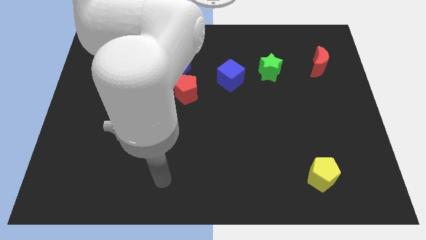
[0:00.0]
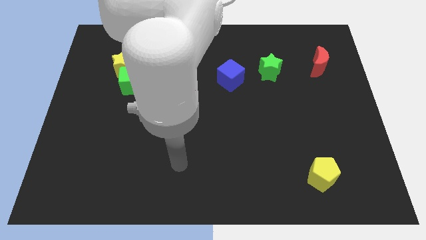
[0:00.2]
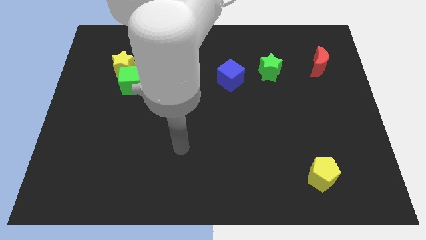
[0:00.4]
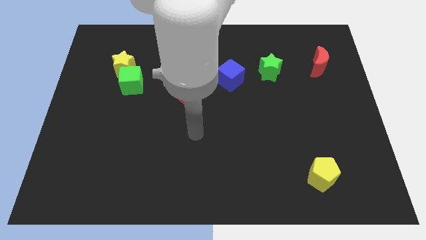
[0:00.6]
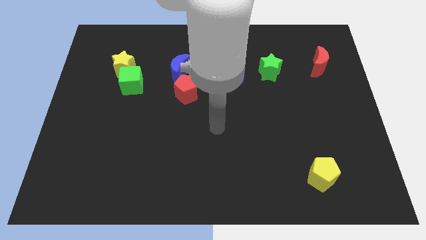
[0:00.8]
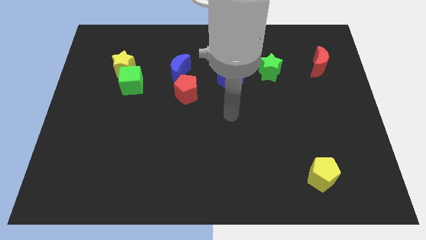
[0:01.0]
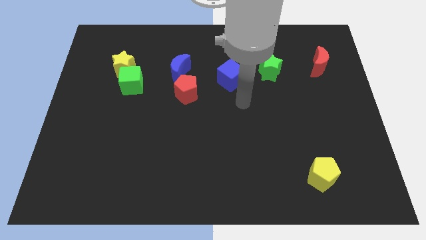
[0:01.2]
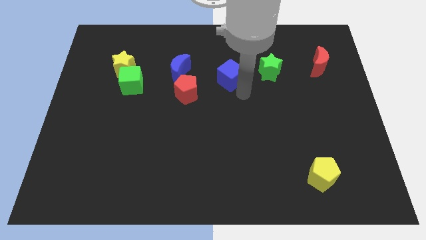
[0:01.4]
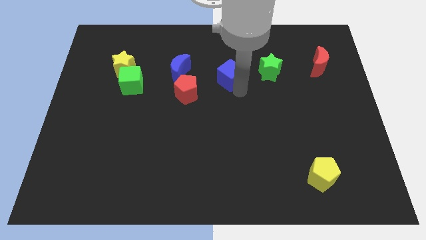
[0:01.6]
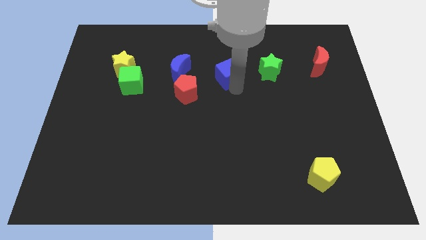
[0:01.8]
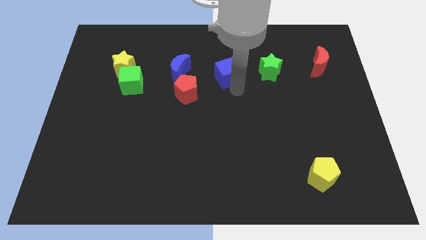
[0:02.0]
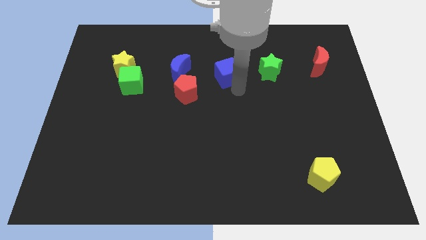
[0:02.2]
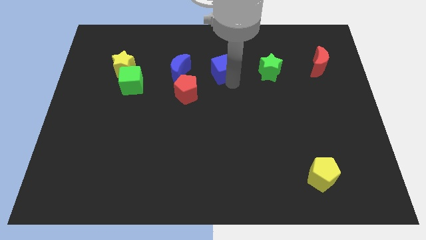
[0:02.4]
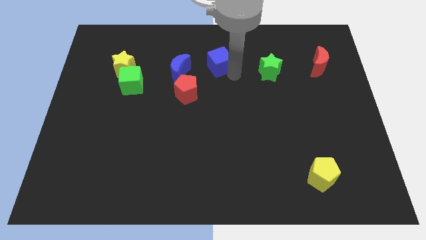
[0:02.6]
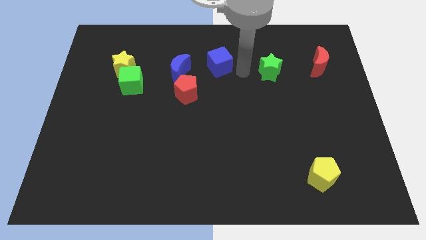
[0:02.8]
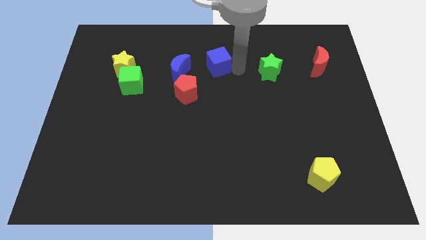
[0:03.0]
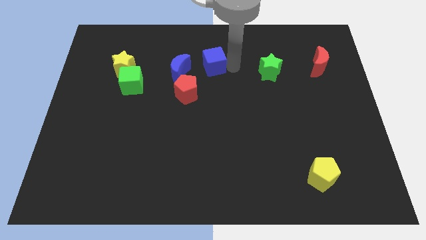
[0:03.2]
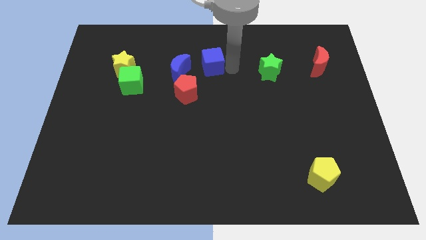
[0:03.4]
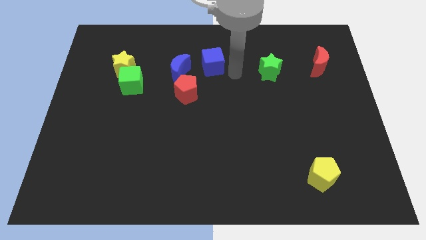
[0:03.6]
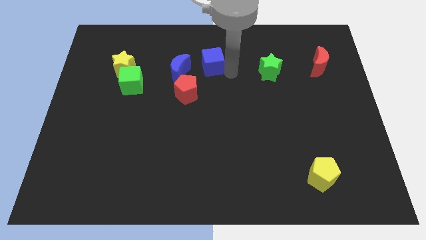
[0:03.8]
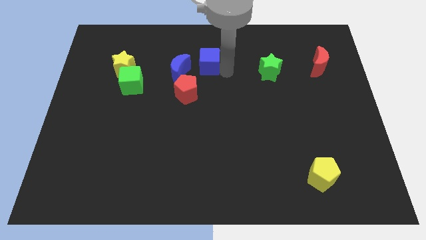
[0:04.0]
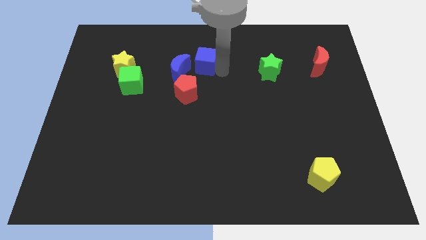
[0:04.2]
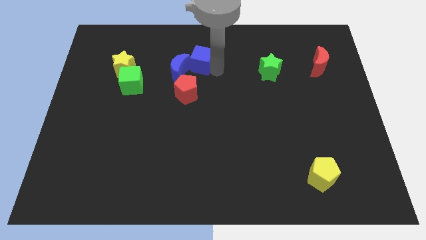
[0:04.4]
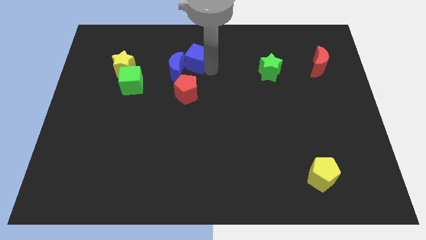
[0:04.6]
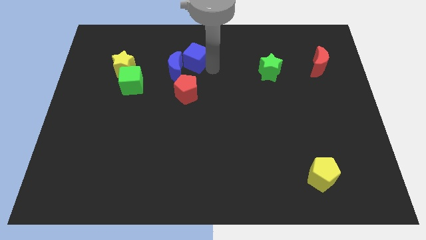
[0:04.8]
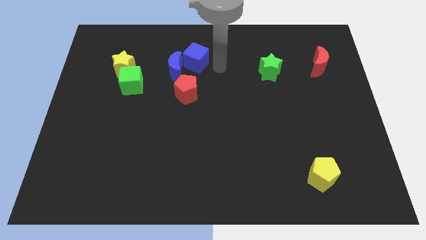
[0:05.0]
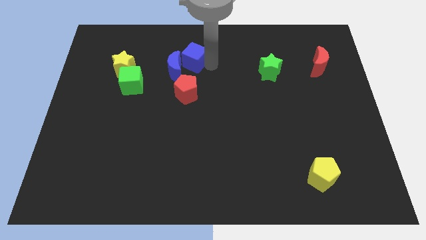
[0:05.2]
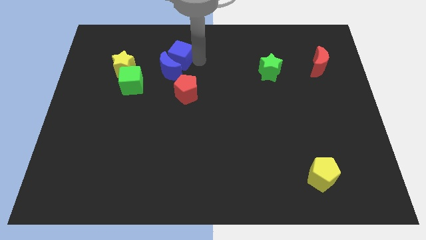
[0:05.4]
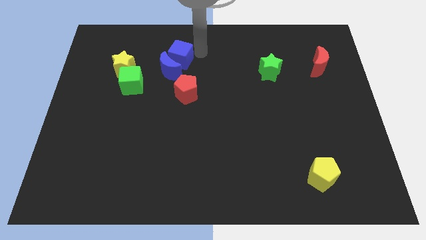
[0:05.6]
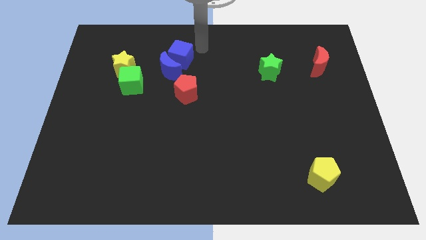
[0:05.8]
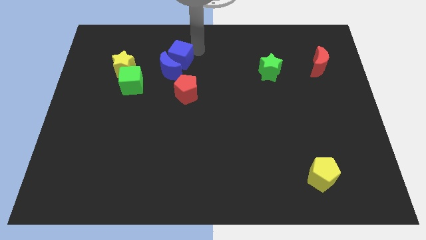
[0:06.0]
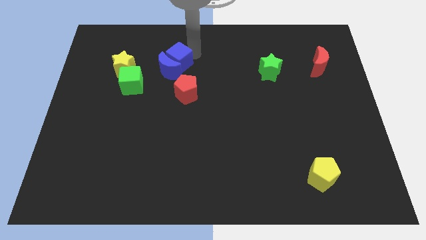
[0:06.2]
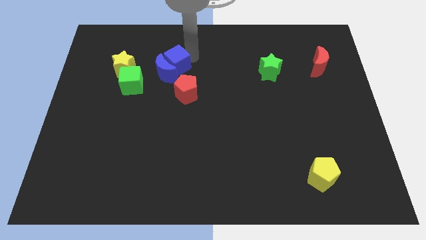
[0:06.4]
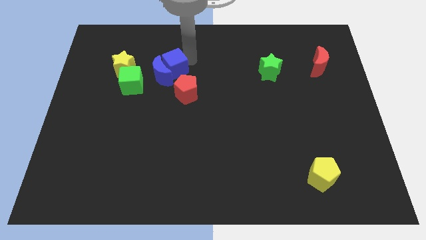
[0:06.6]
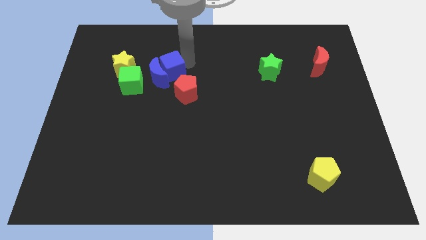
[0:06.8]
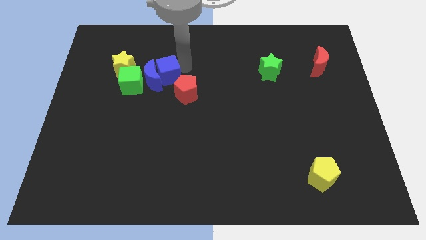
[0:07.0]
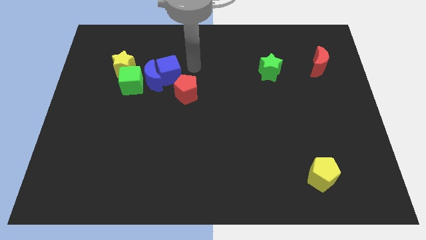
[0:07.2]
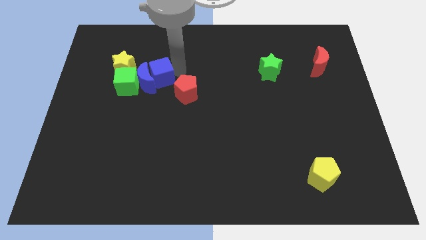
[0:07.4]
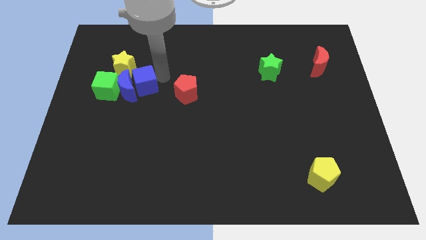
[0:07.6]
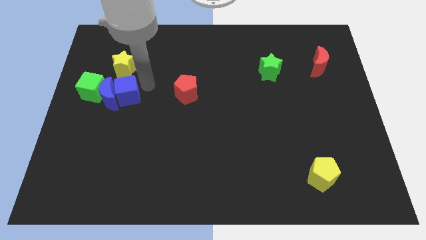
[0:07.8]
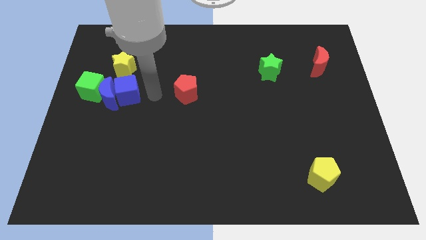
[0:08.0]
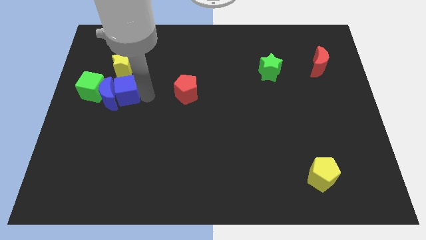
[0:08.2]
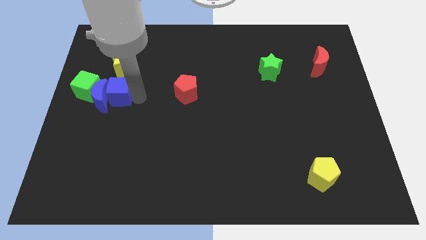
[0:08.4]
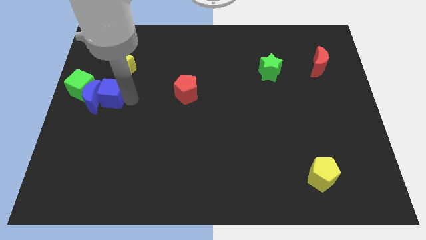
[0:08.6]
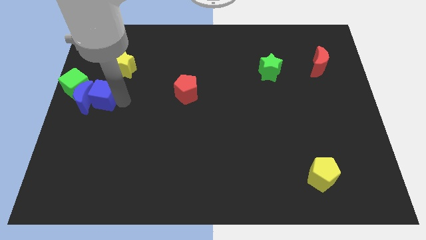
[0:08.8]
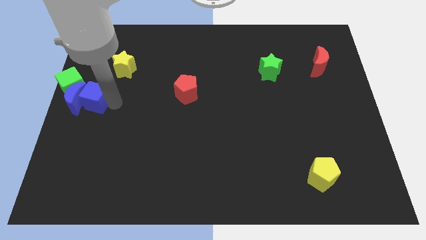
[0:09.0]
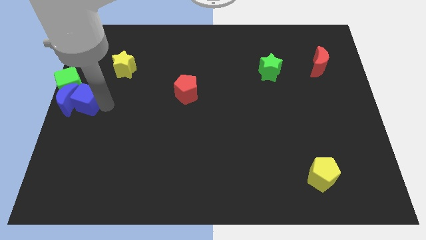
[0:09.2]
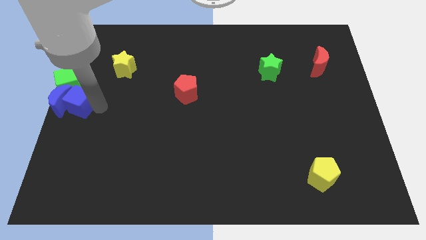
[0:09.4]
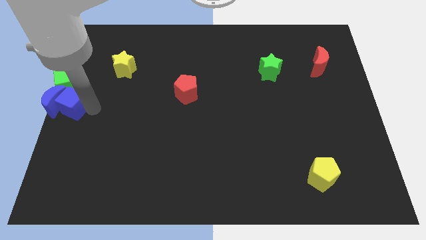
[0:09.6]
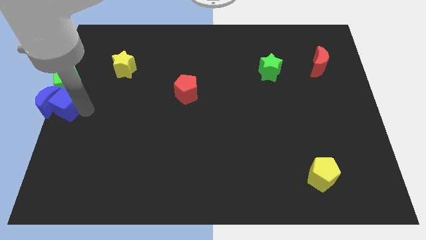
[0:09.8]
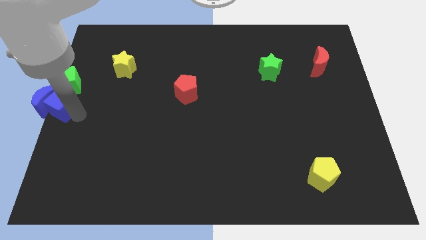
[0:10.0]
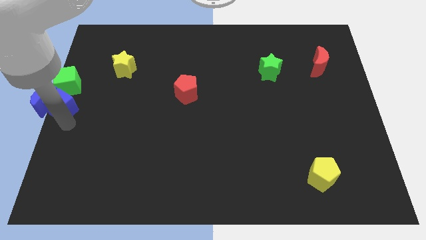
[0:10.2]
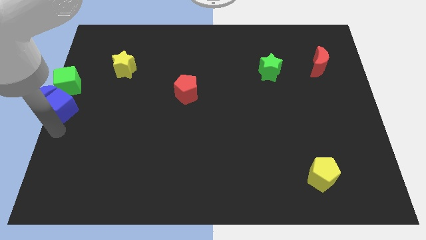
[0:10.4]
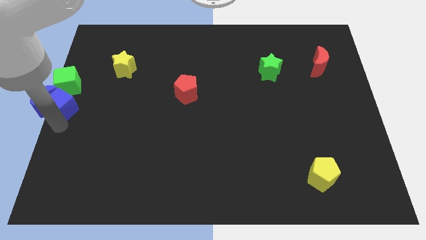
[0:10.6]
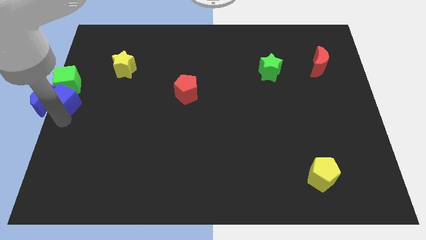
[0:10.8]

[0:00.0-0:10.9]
put the blue cube next to the green cube

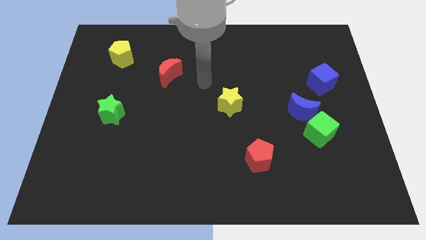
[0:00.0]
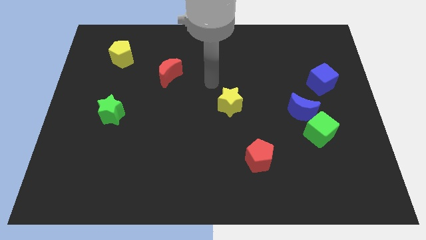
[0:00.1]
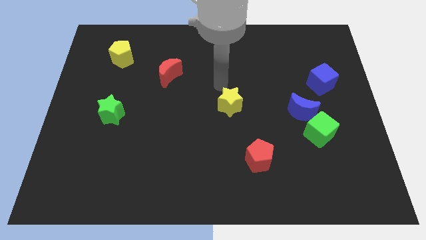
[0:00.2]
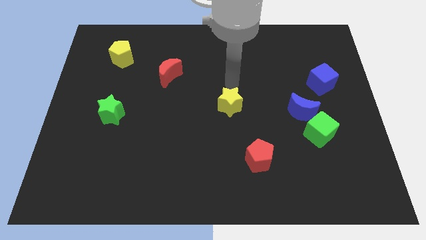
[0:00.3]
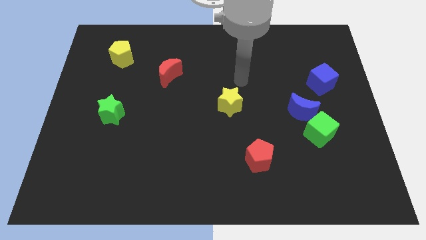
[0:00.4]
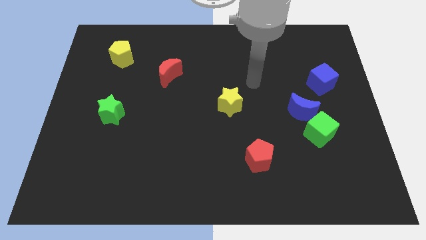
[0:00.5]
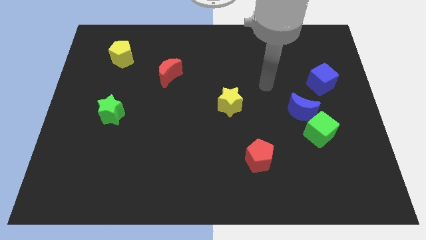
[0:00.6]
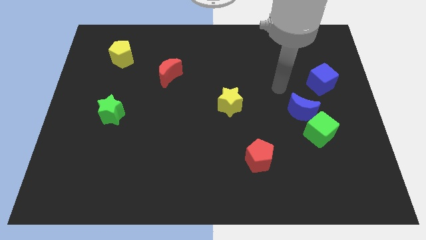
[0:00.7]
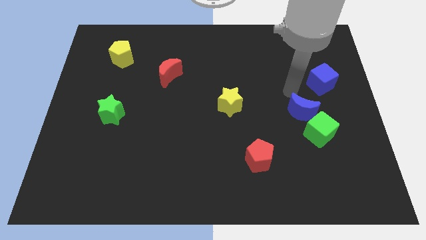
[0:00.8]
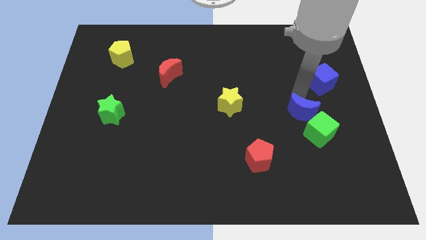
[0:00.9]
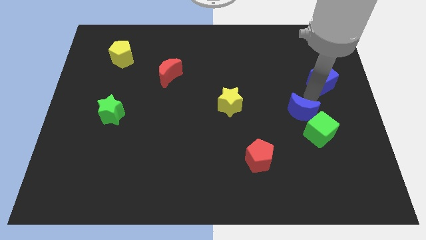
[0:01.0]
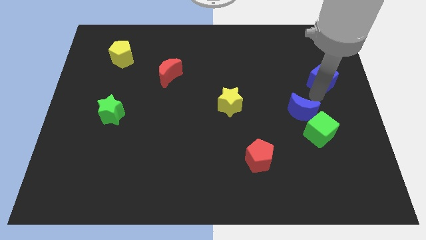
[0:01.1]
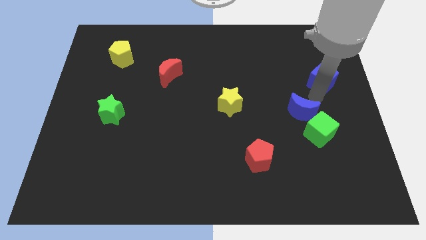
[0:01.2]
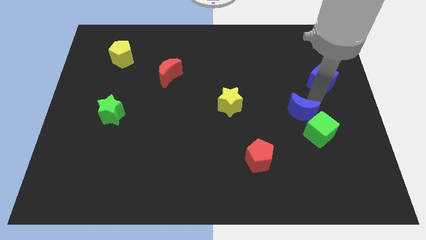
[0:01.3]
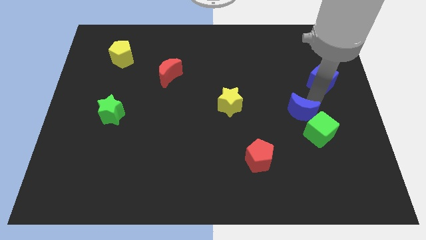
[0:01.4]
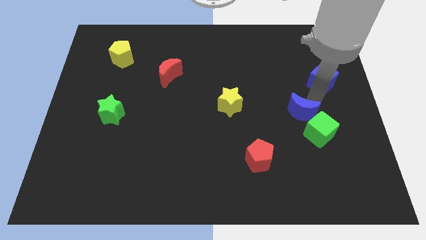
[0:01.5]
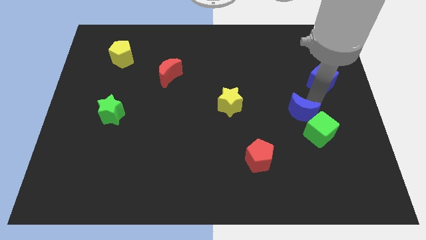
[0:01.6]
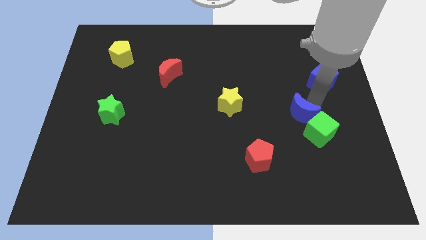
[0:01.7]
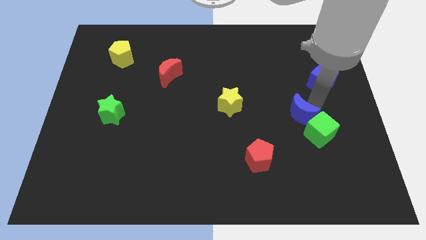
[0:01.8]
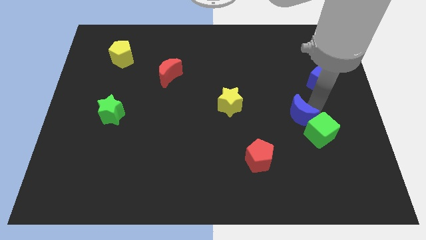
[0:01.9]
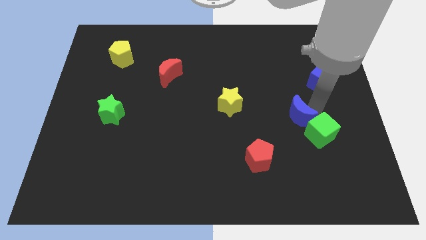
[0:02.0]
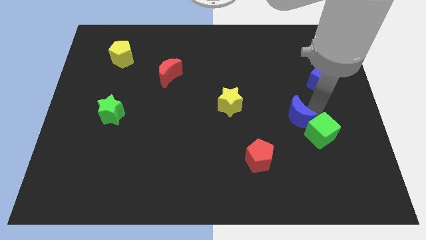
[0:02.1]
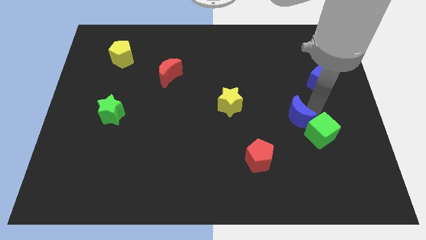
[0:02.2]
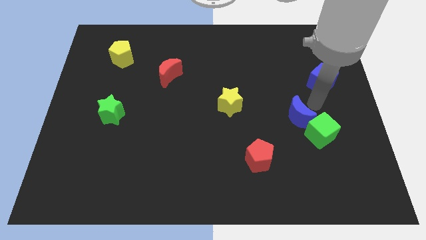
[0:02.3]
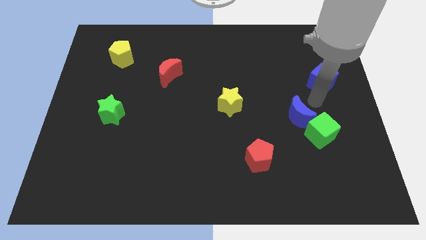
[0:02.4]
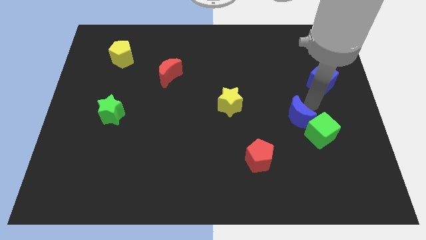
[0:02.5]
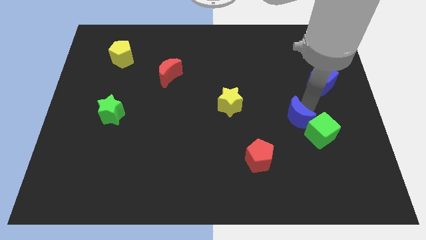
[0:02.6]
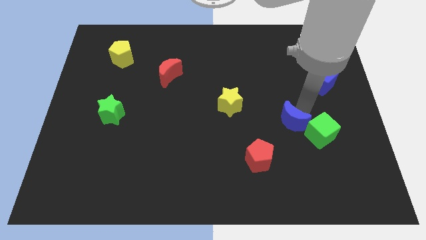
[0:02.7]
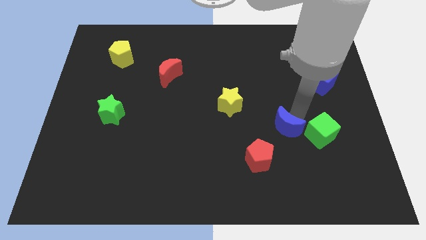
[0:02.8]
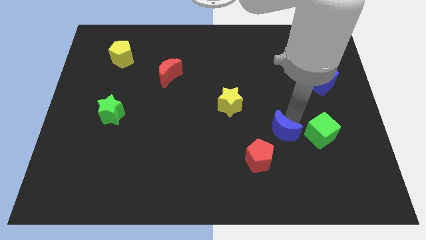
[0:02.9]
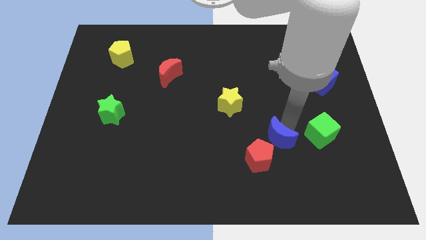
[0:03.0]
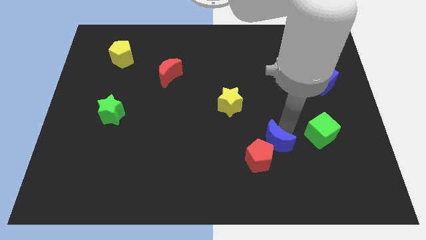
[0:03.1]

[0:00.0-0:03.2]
move the blue moon to the red pentagon
